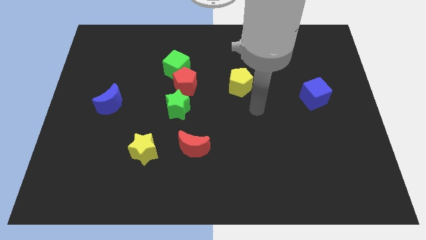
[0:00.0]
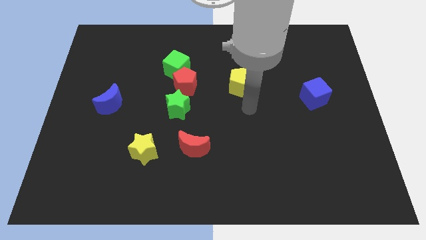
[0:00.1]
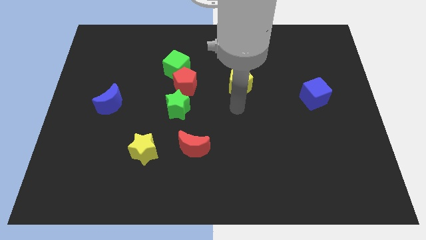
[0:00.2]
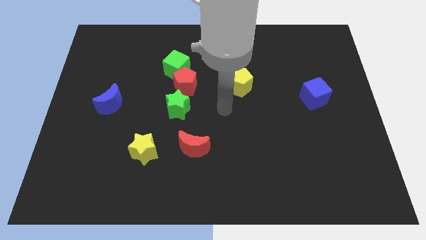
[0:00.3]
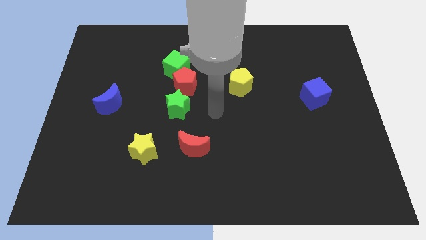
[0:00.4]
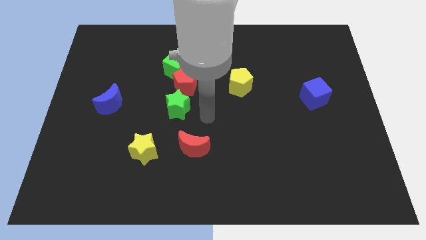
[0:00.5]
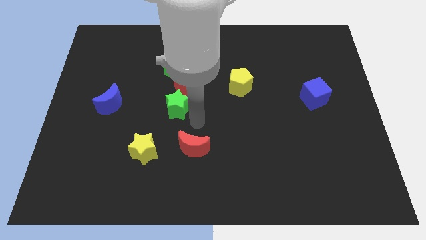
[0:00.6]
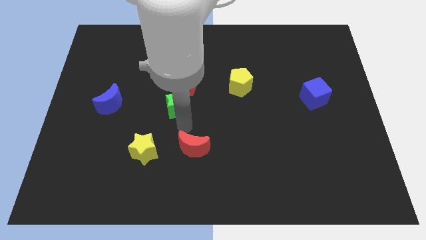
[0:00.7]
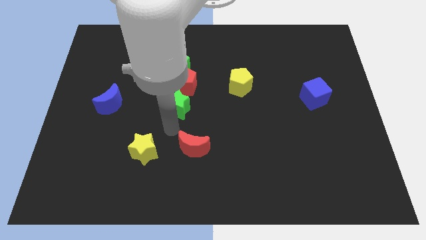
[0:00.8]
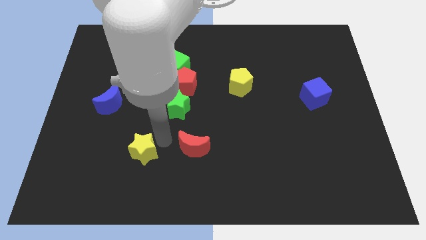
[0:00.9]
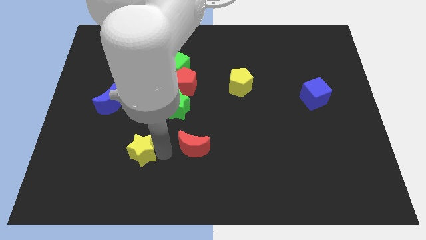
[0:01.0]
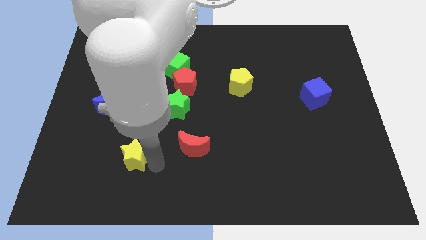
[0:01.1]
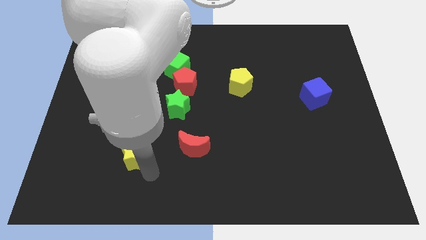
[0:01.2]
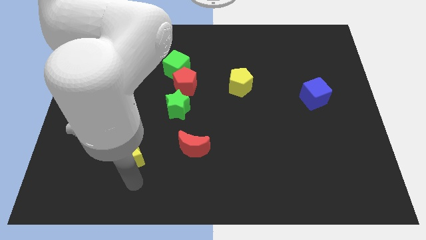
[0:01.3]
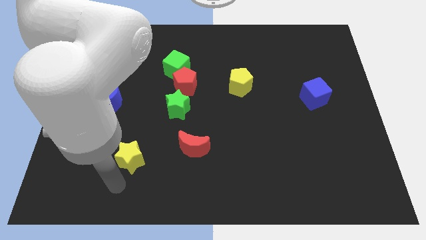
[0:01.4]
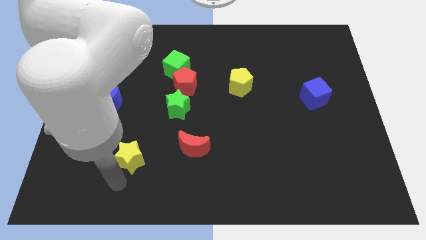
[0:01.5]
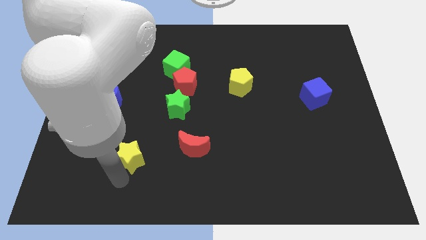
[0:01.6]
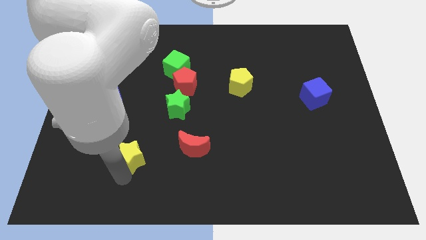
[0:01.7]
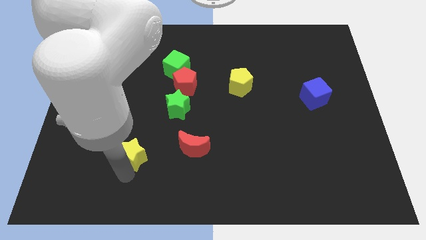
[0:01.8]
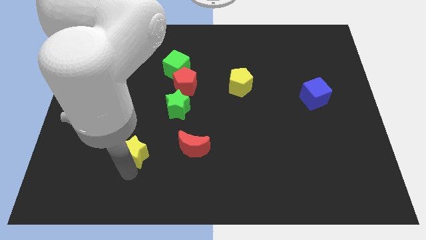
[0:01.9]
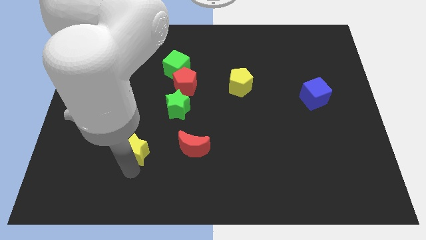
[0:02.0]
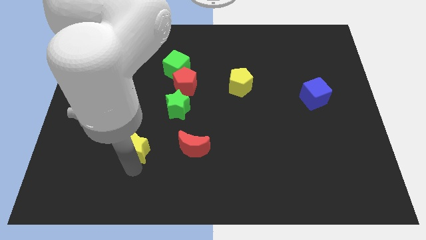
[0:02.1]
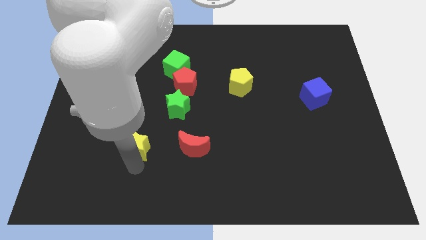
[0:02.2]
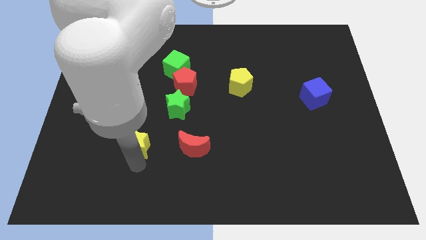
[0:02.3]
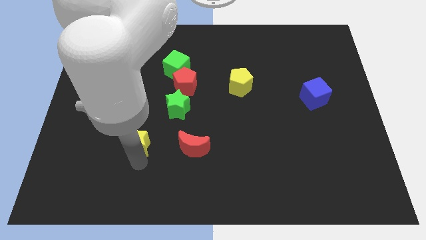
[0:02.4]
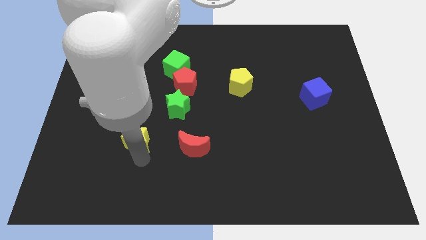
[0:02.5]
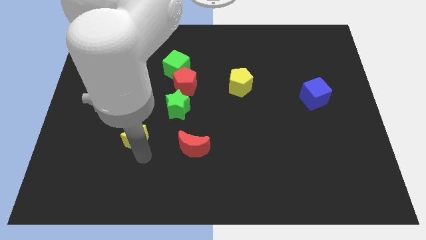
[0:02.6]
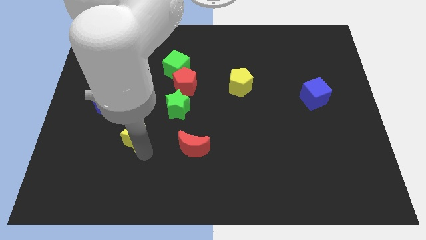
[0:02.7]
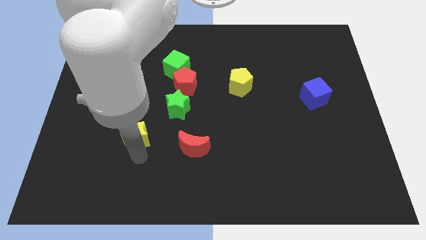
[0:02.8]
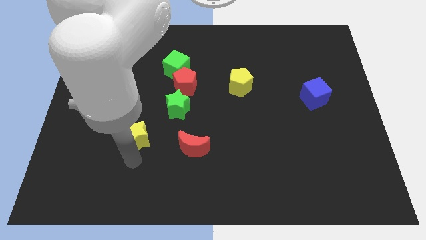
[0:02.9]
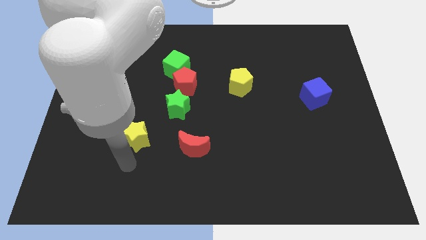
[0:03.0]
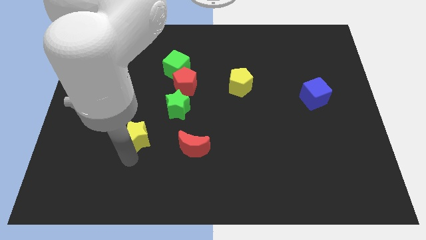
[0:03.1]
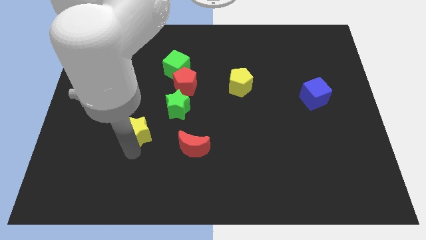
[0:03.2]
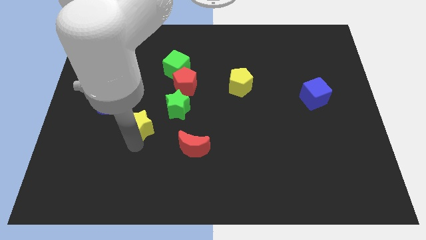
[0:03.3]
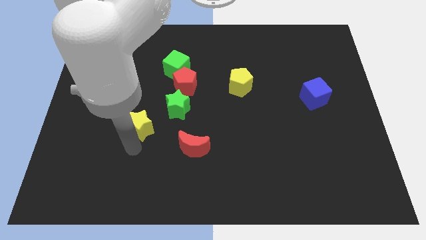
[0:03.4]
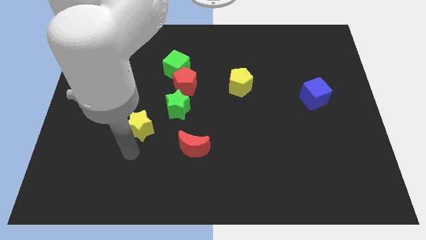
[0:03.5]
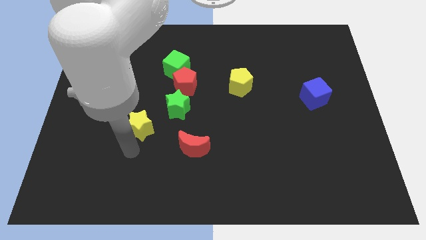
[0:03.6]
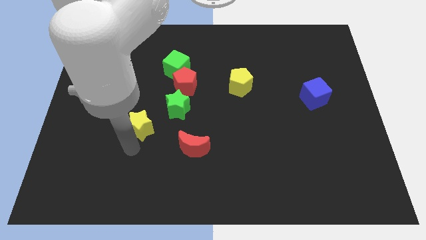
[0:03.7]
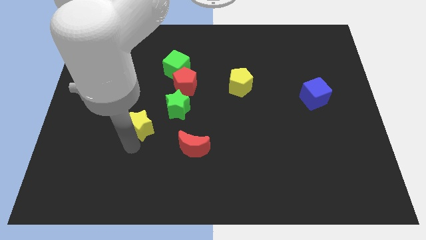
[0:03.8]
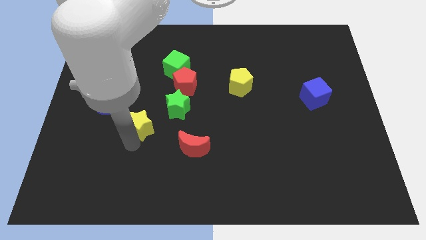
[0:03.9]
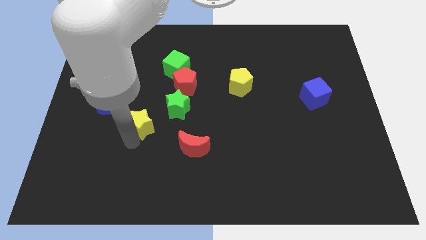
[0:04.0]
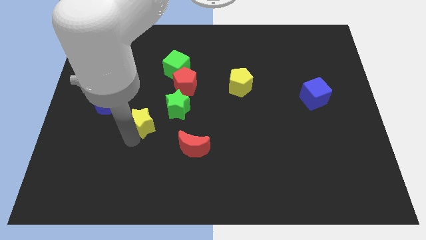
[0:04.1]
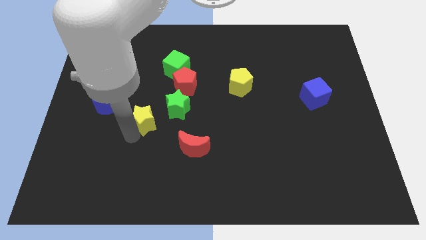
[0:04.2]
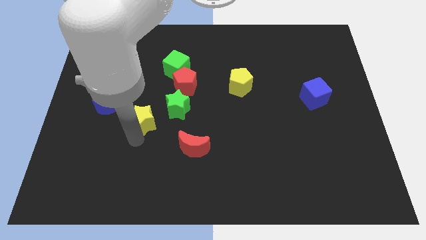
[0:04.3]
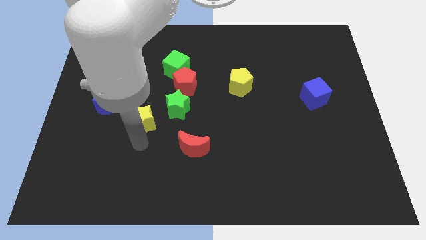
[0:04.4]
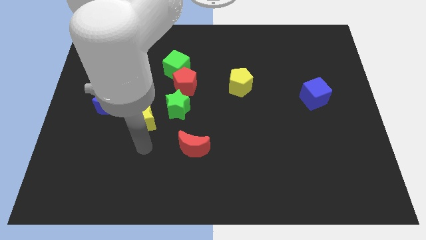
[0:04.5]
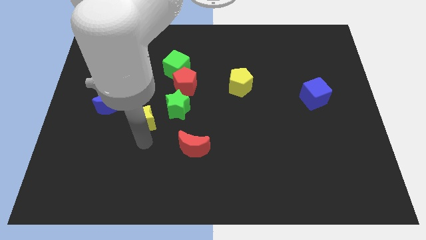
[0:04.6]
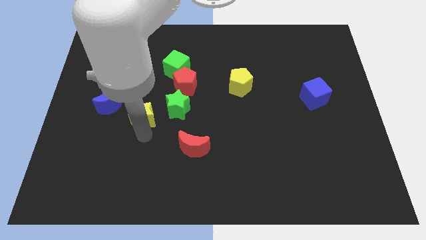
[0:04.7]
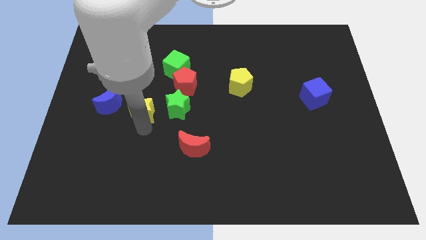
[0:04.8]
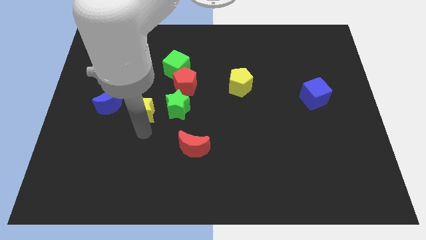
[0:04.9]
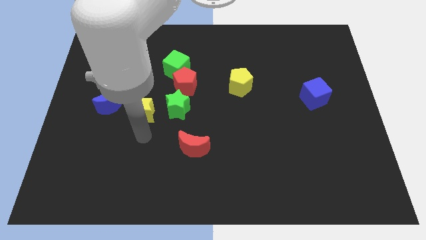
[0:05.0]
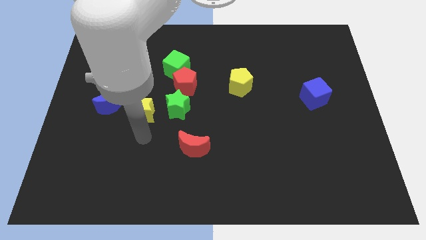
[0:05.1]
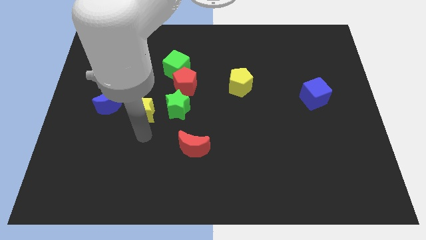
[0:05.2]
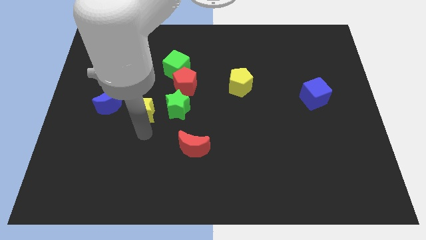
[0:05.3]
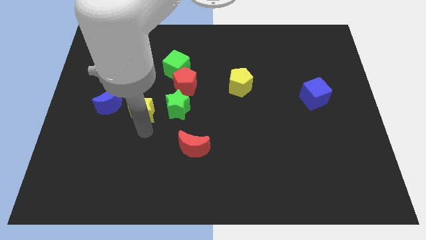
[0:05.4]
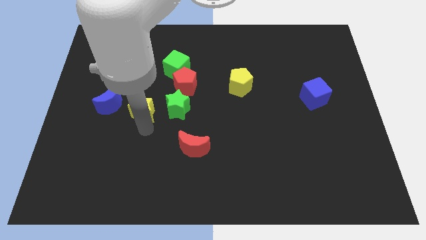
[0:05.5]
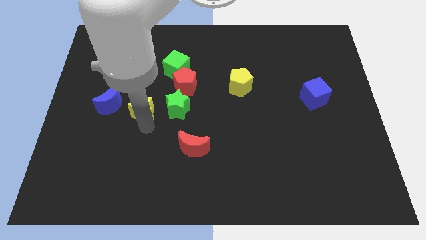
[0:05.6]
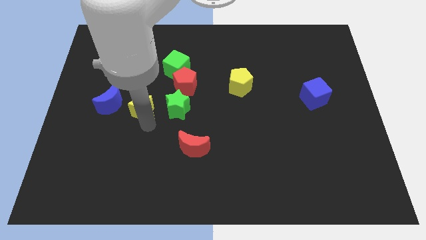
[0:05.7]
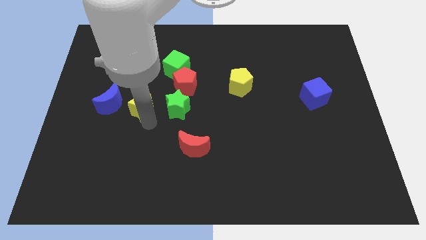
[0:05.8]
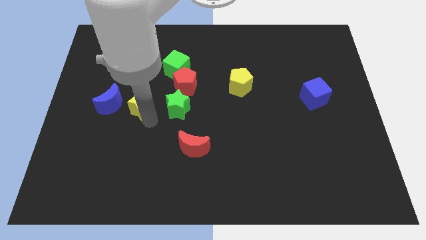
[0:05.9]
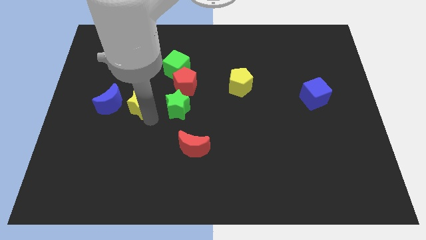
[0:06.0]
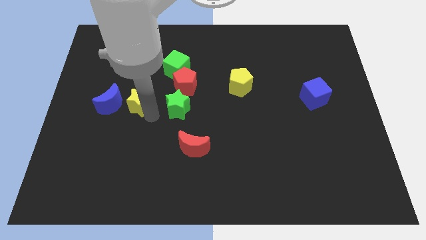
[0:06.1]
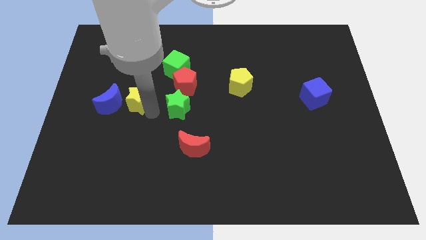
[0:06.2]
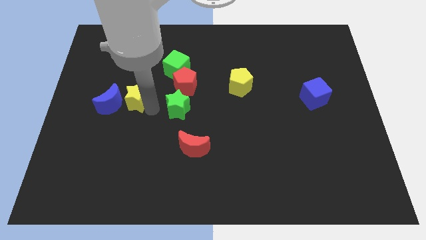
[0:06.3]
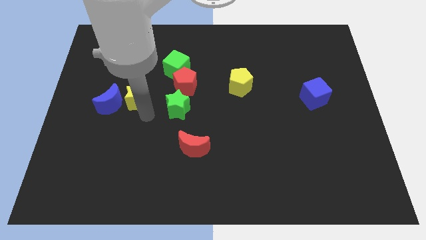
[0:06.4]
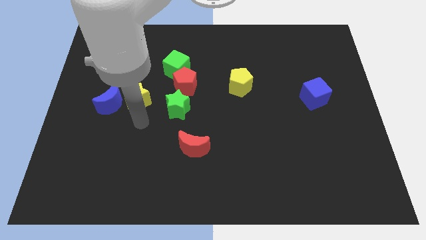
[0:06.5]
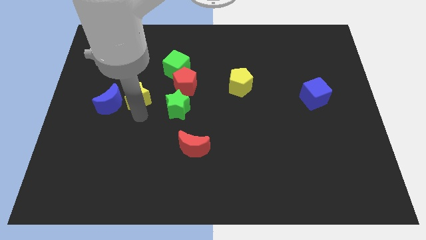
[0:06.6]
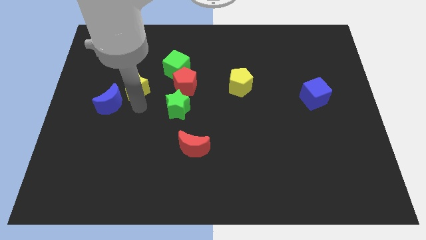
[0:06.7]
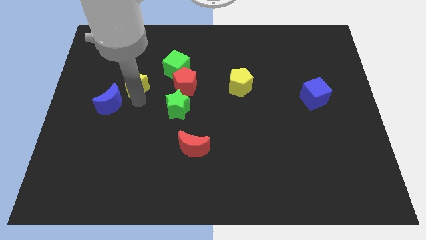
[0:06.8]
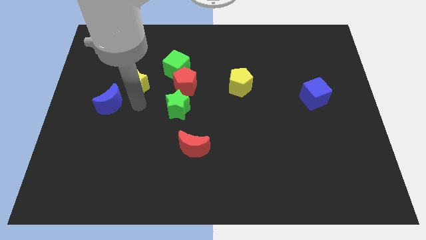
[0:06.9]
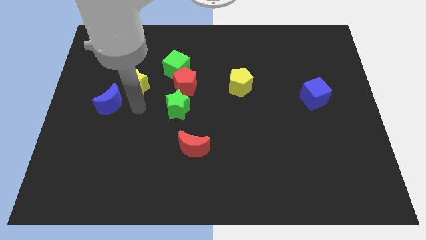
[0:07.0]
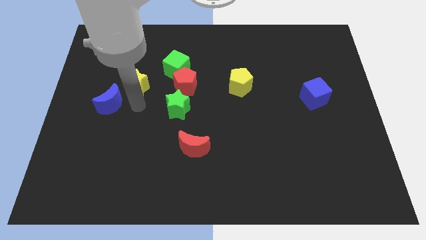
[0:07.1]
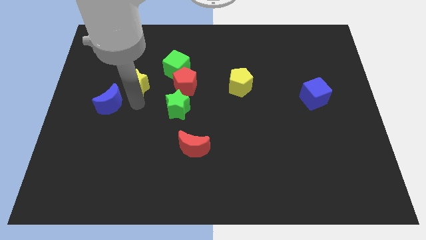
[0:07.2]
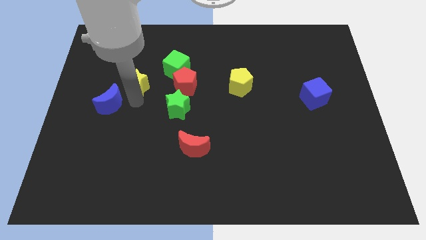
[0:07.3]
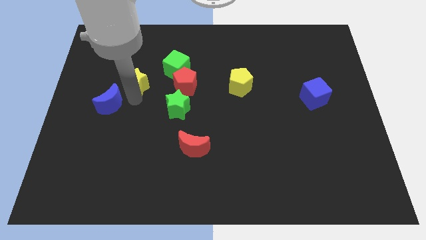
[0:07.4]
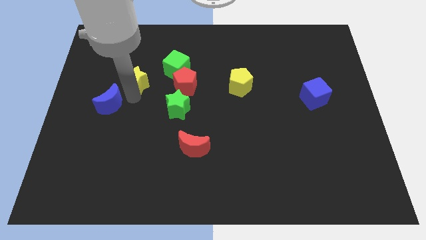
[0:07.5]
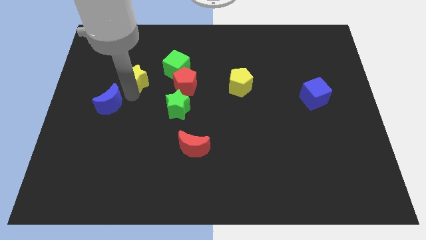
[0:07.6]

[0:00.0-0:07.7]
push the yellow star to the left of the green cube

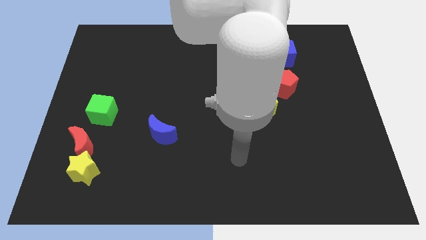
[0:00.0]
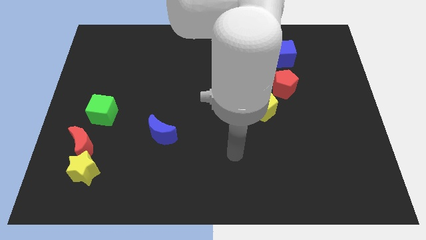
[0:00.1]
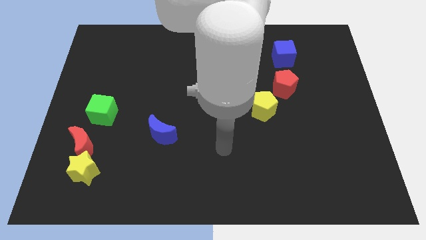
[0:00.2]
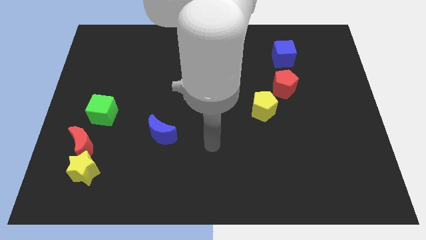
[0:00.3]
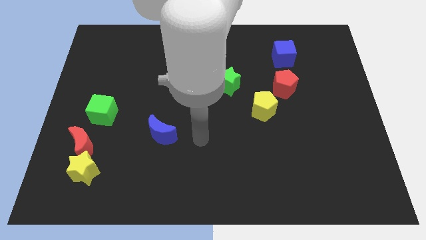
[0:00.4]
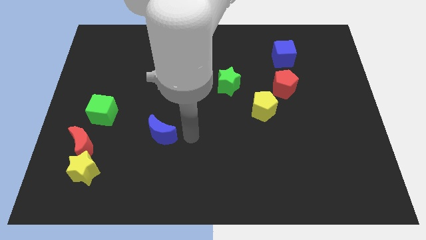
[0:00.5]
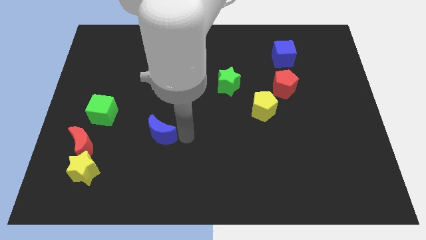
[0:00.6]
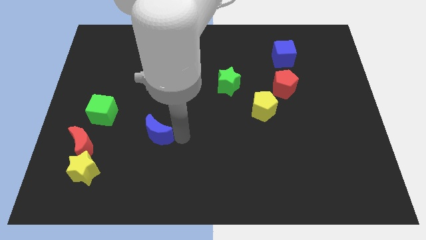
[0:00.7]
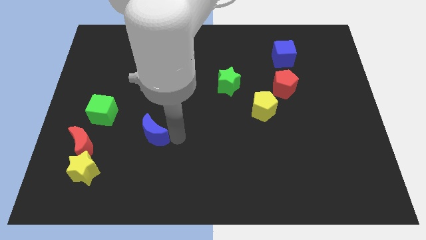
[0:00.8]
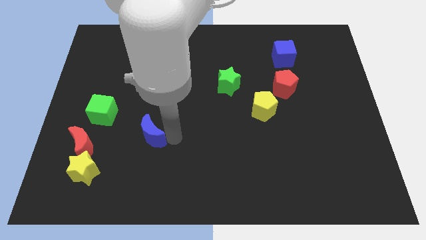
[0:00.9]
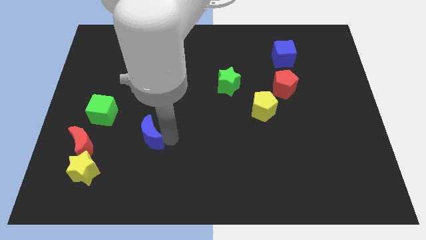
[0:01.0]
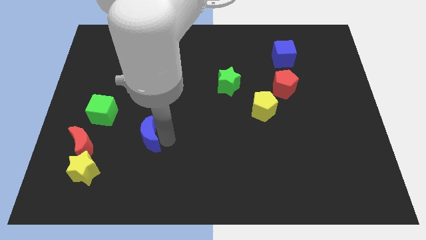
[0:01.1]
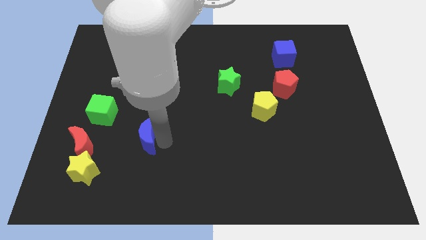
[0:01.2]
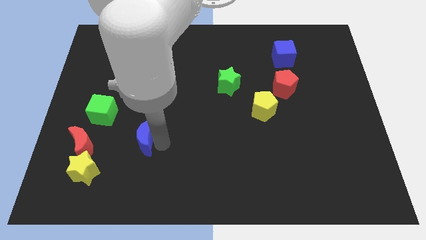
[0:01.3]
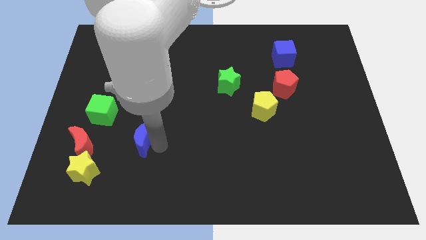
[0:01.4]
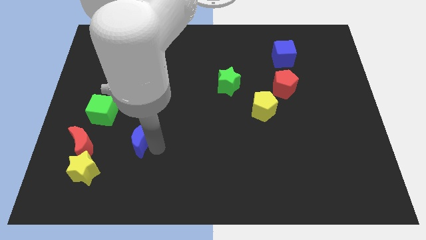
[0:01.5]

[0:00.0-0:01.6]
push the blue moon diagonally down and to the right of the green cube
